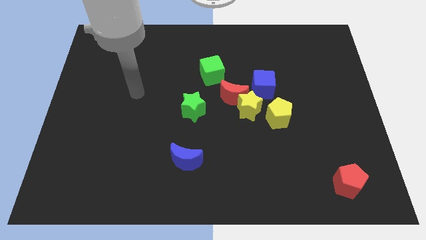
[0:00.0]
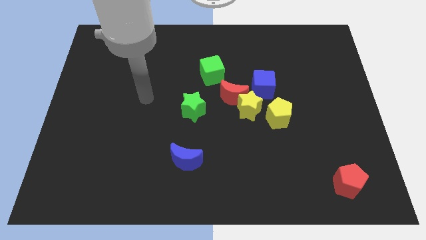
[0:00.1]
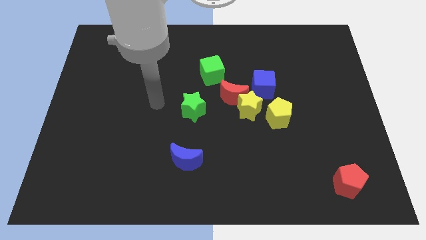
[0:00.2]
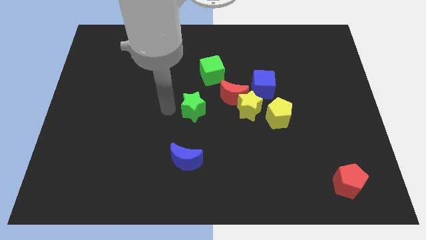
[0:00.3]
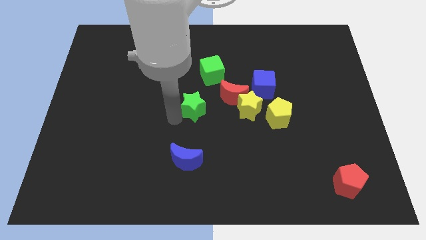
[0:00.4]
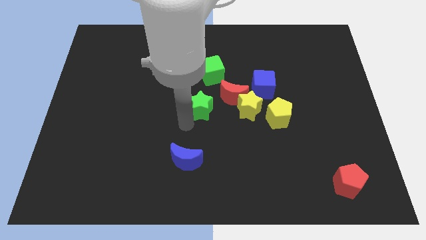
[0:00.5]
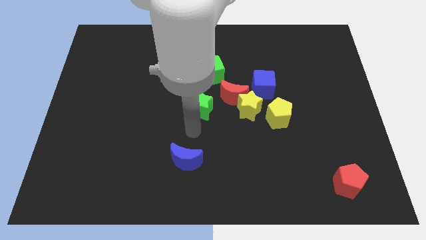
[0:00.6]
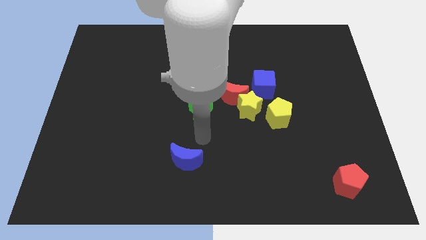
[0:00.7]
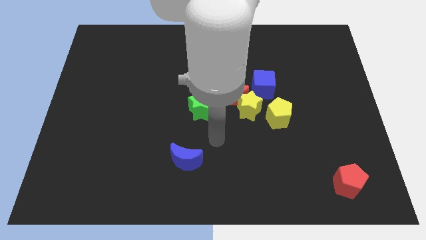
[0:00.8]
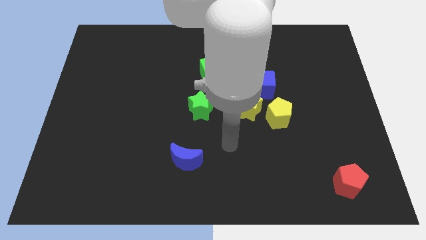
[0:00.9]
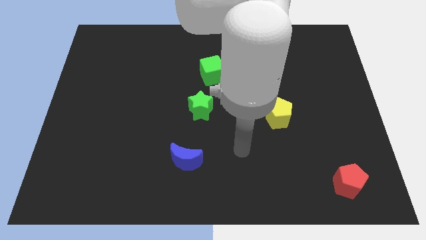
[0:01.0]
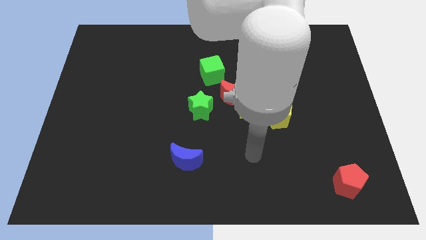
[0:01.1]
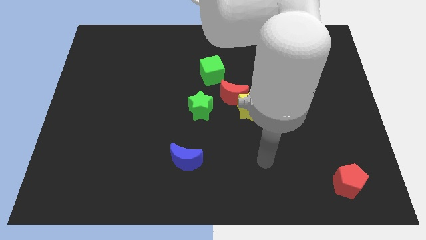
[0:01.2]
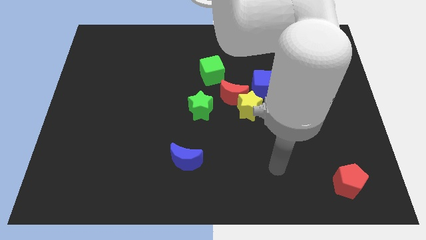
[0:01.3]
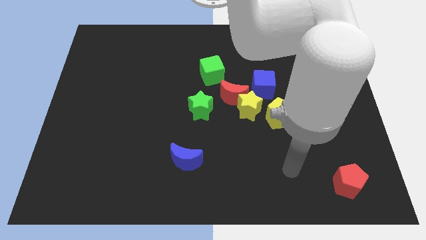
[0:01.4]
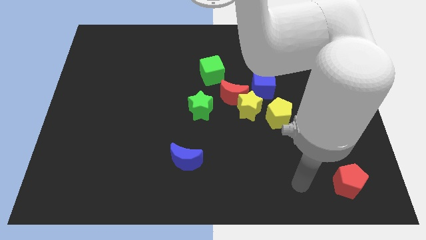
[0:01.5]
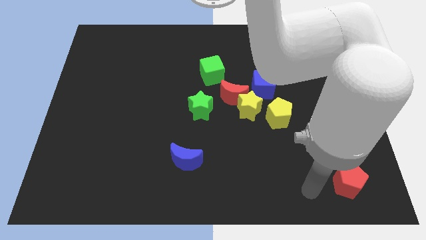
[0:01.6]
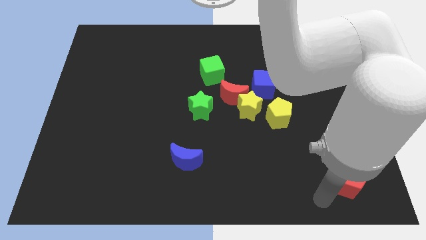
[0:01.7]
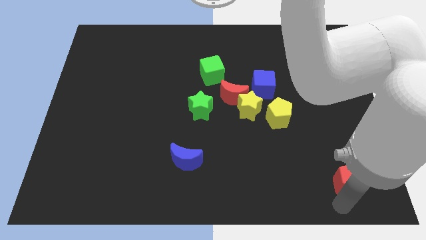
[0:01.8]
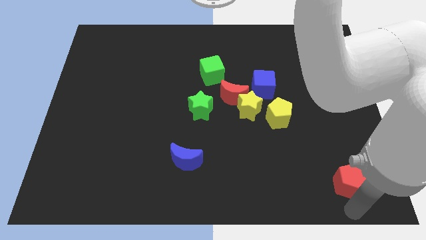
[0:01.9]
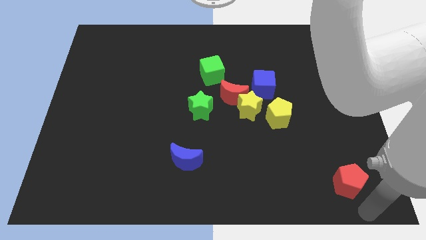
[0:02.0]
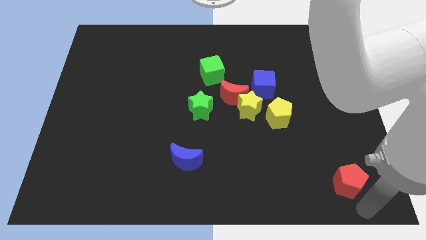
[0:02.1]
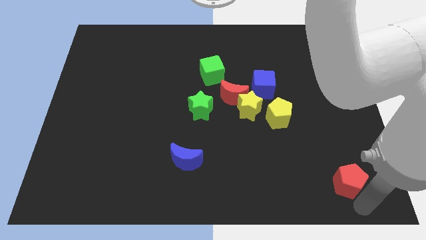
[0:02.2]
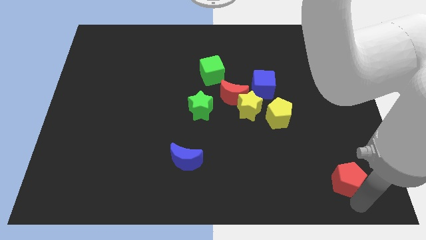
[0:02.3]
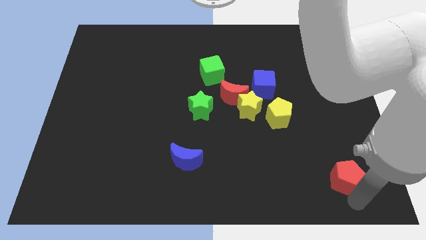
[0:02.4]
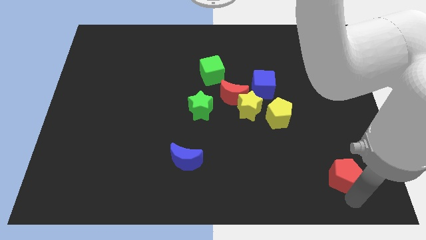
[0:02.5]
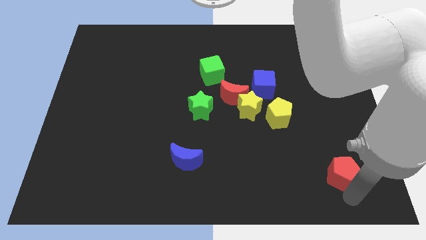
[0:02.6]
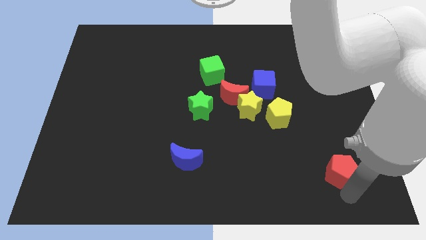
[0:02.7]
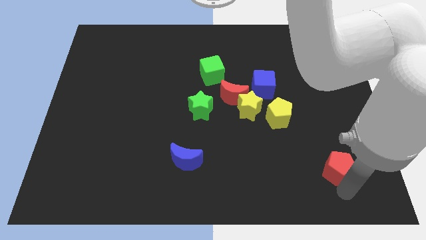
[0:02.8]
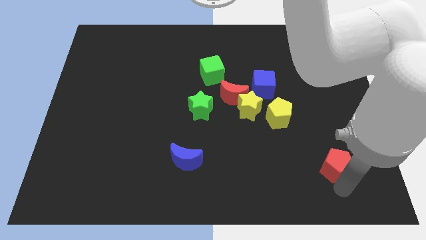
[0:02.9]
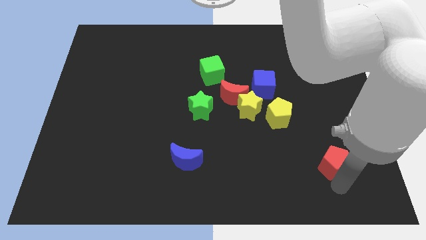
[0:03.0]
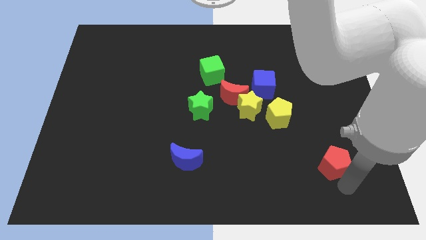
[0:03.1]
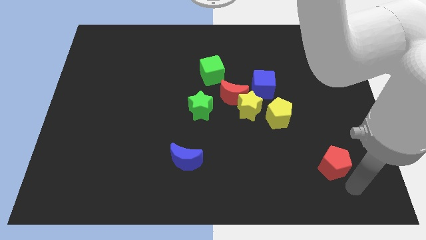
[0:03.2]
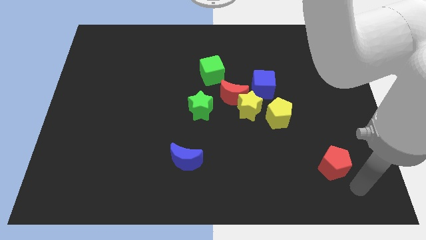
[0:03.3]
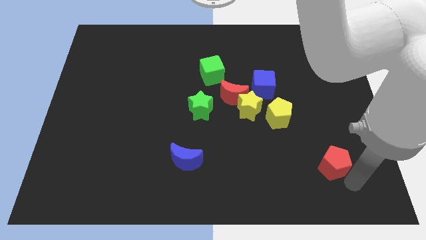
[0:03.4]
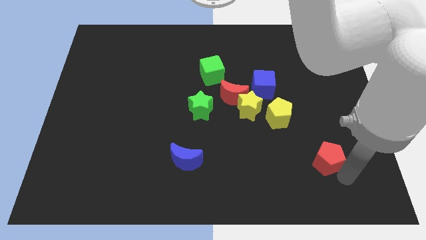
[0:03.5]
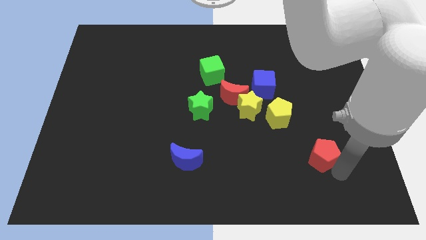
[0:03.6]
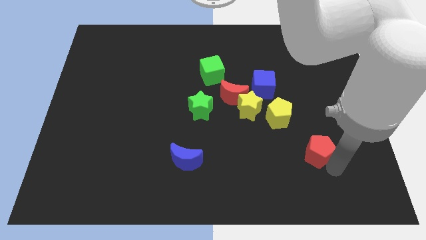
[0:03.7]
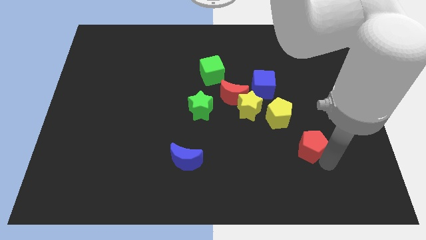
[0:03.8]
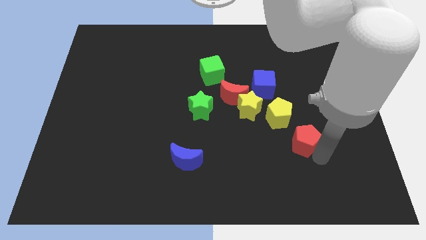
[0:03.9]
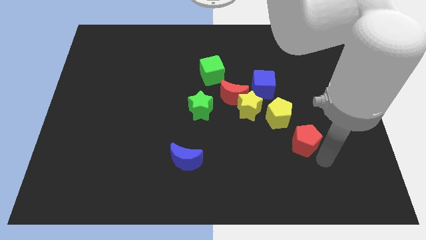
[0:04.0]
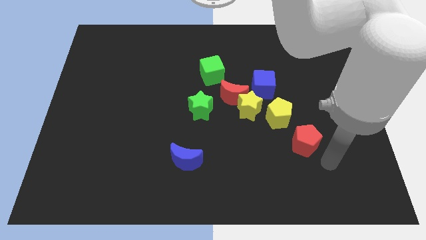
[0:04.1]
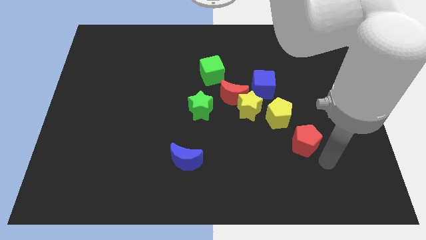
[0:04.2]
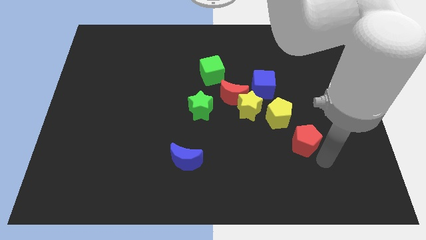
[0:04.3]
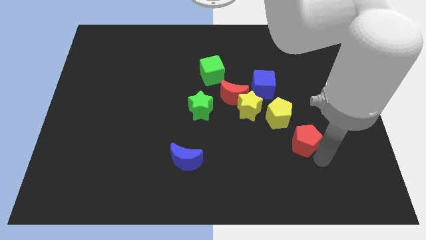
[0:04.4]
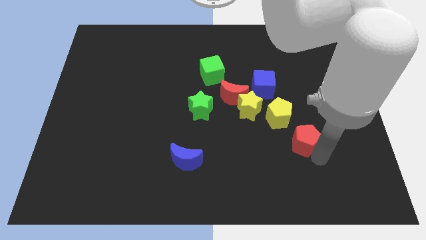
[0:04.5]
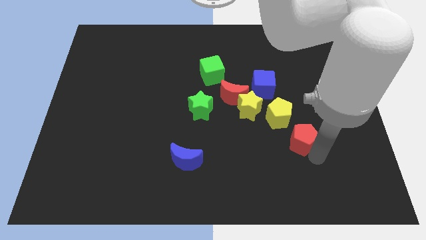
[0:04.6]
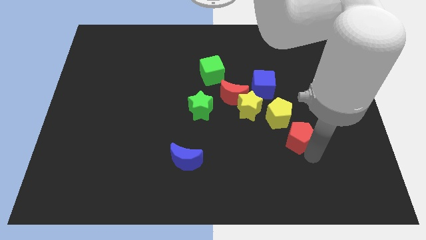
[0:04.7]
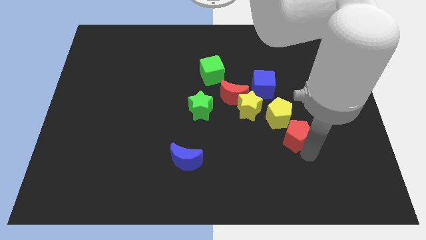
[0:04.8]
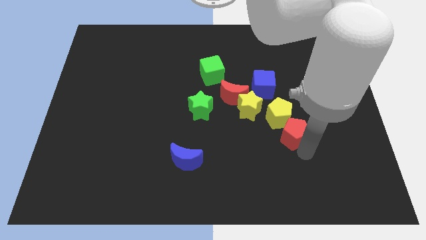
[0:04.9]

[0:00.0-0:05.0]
push the red pentagon next to the yellow pentagon

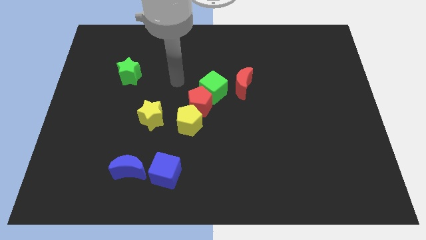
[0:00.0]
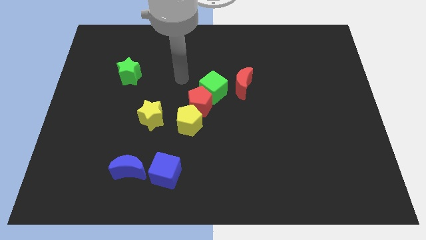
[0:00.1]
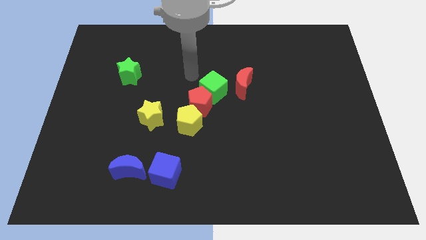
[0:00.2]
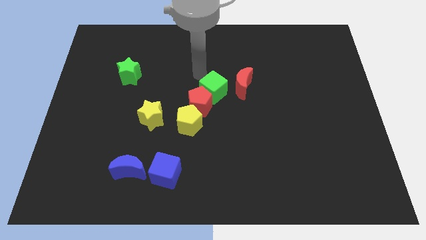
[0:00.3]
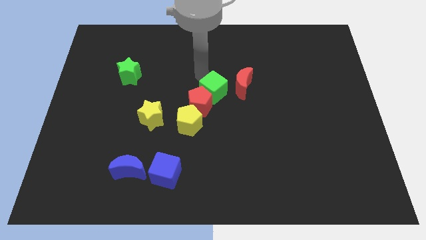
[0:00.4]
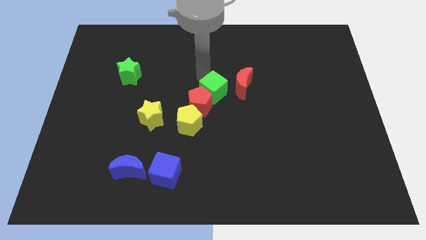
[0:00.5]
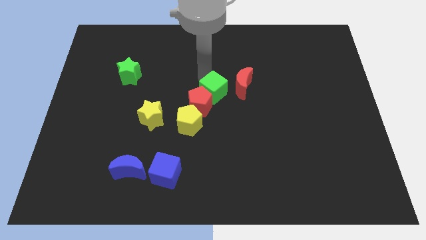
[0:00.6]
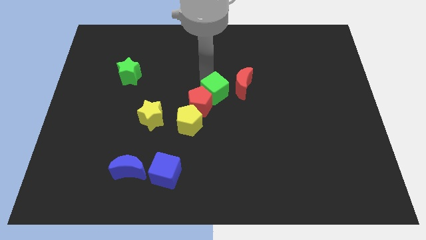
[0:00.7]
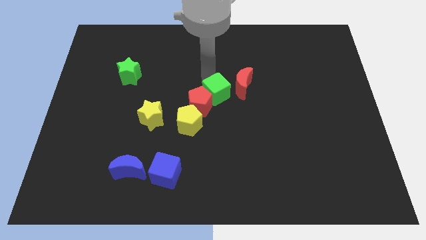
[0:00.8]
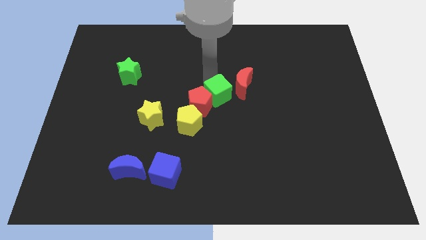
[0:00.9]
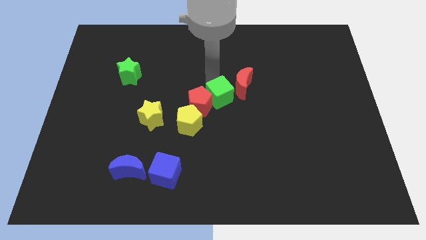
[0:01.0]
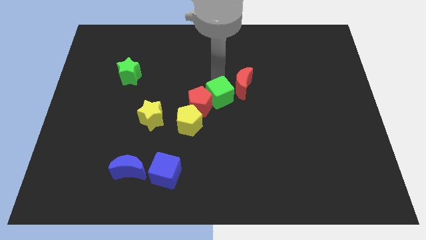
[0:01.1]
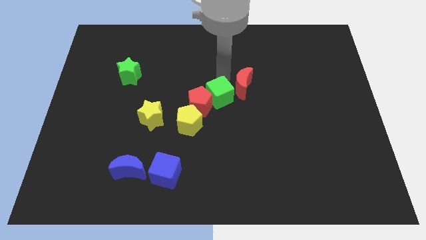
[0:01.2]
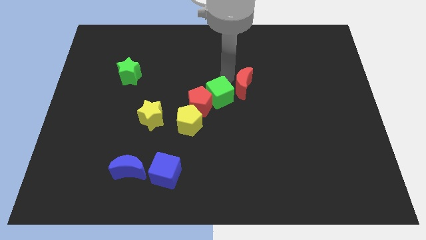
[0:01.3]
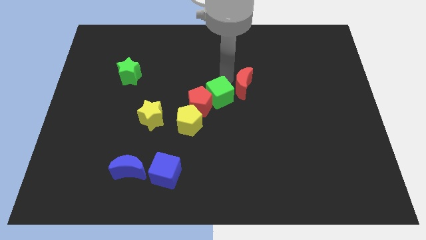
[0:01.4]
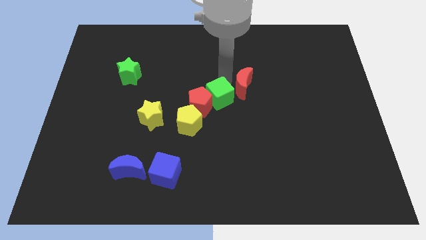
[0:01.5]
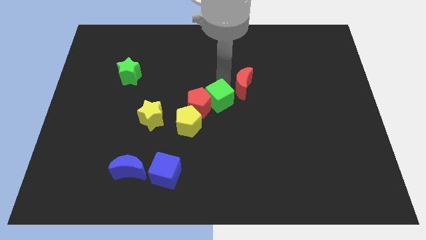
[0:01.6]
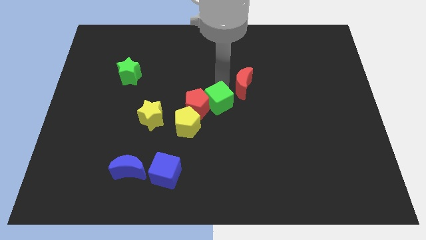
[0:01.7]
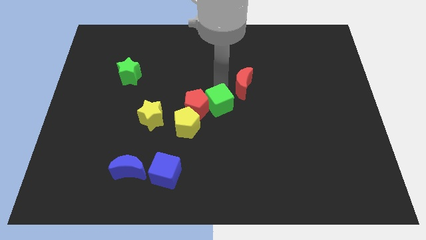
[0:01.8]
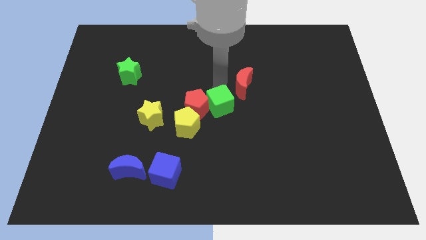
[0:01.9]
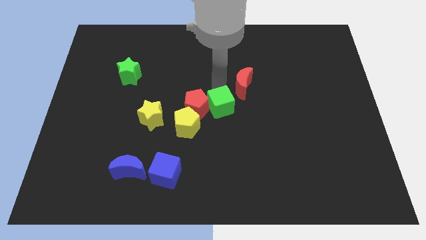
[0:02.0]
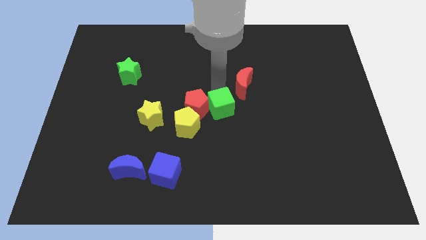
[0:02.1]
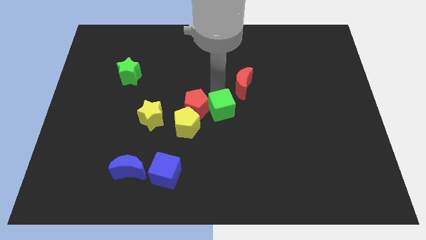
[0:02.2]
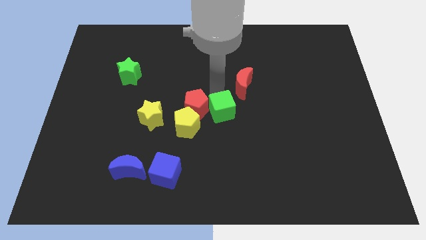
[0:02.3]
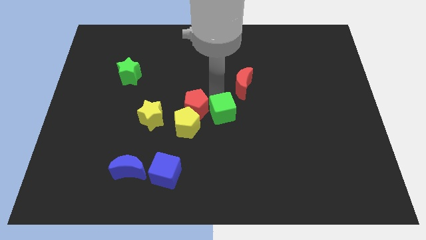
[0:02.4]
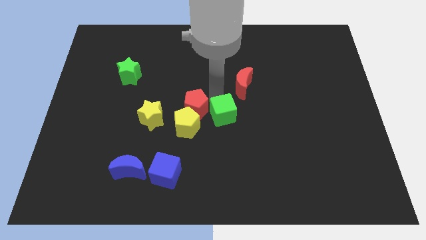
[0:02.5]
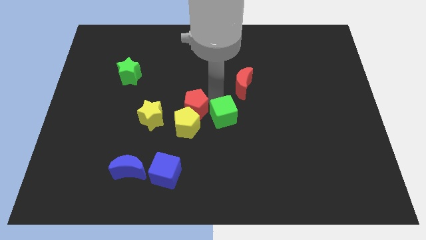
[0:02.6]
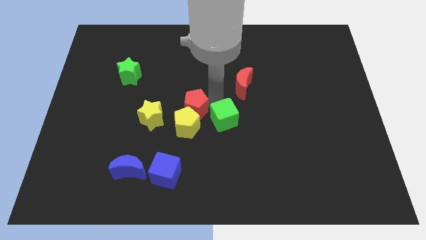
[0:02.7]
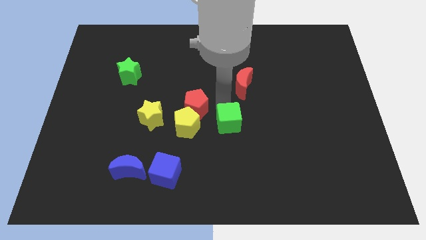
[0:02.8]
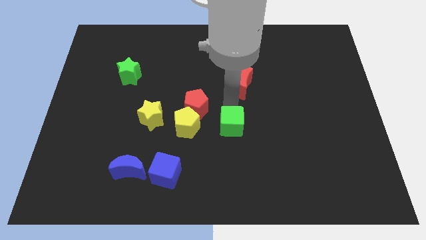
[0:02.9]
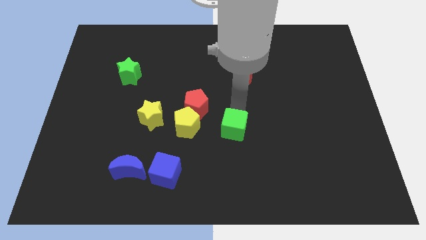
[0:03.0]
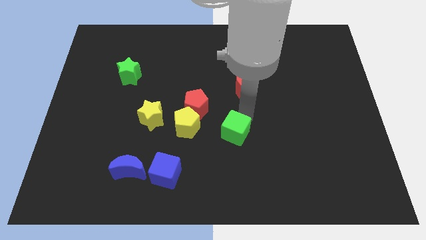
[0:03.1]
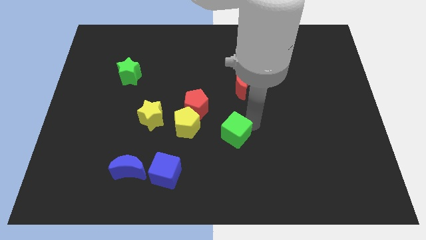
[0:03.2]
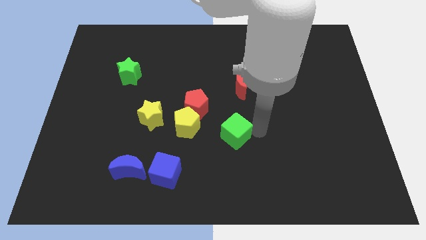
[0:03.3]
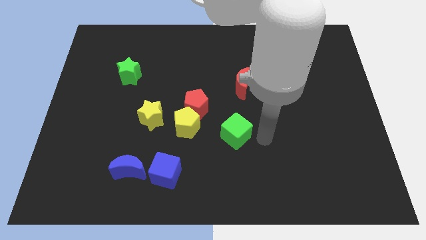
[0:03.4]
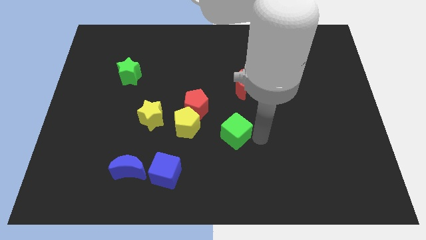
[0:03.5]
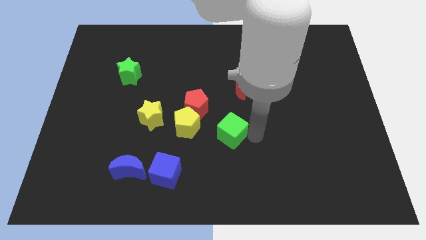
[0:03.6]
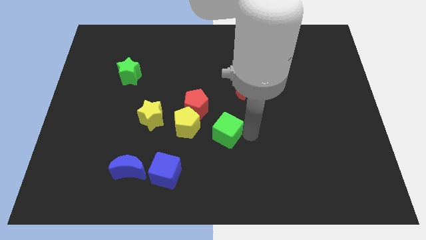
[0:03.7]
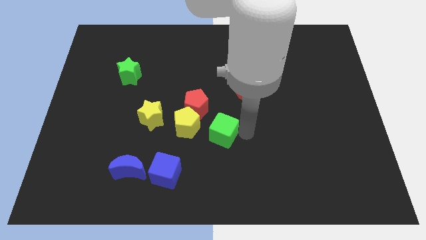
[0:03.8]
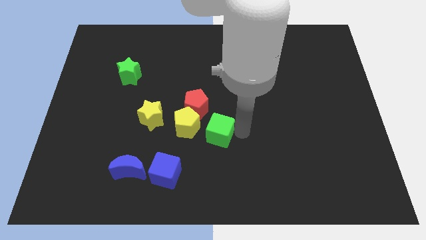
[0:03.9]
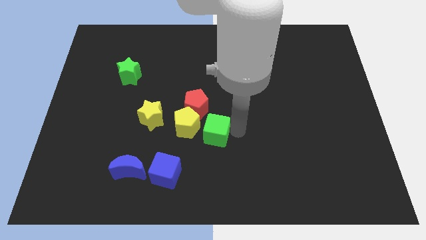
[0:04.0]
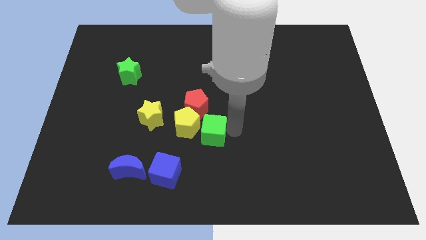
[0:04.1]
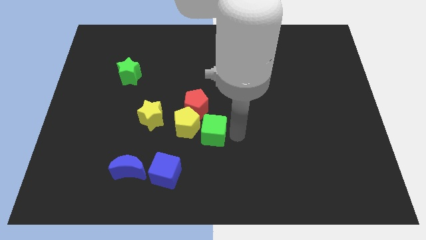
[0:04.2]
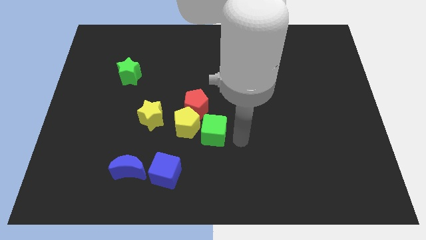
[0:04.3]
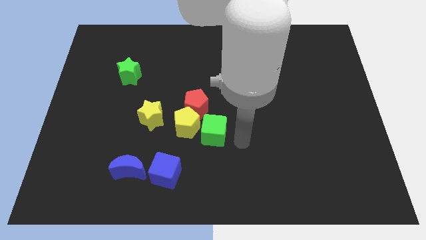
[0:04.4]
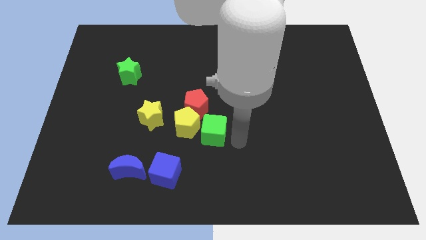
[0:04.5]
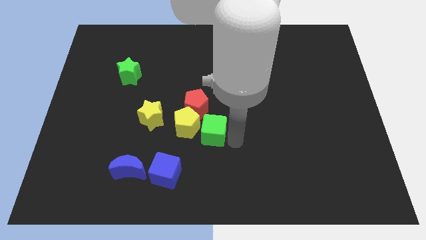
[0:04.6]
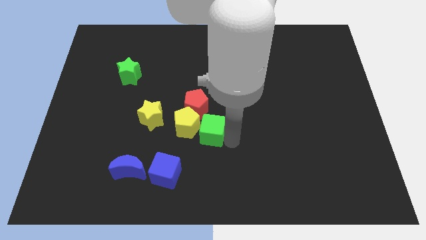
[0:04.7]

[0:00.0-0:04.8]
move the green cube towards the yellow pentagon
